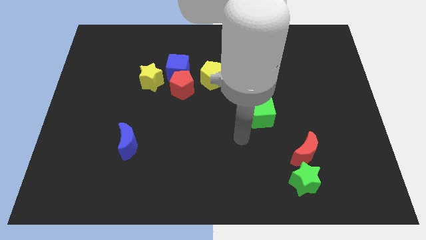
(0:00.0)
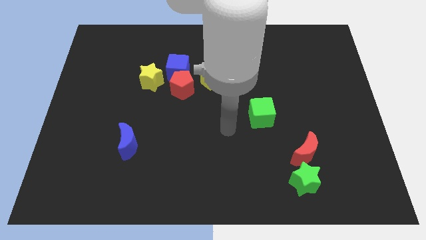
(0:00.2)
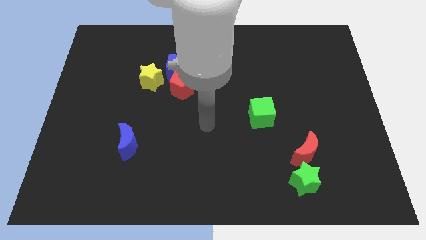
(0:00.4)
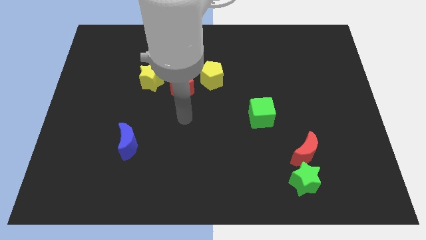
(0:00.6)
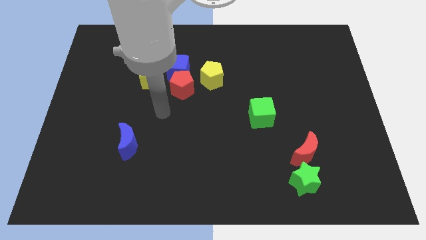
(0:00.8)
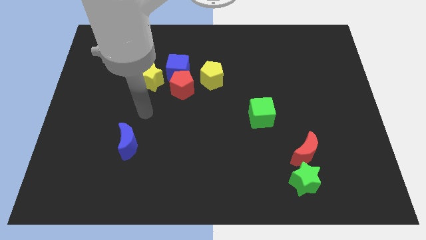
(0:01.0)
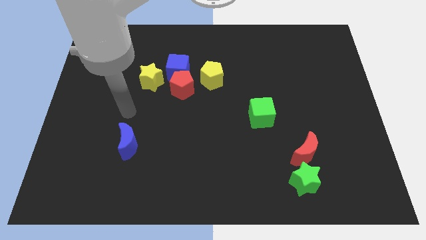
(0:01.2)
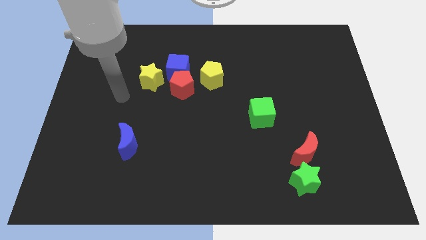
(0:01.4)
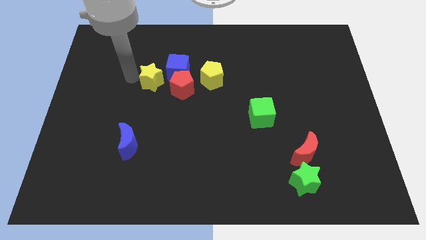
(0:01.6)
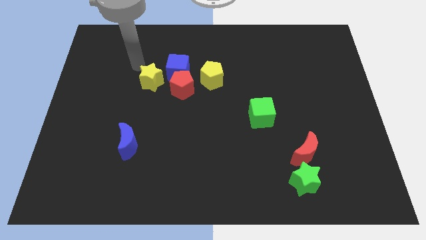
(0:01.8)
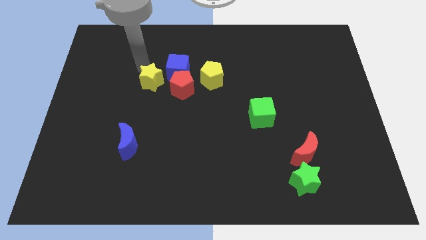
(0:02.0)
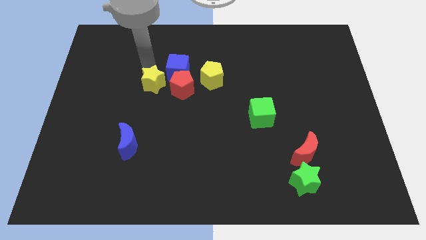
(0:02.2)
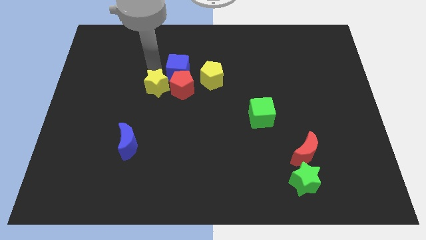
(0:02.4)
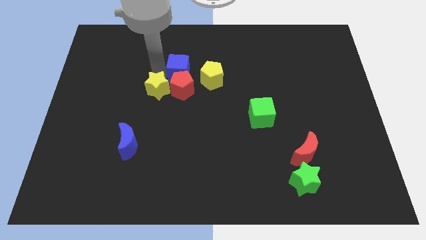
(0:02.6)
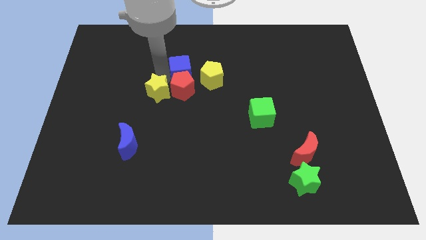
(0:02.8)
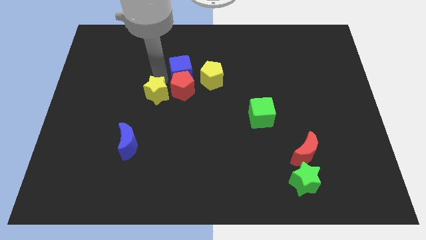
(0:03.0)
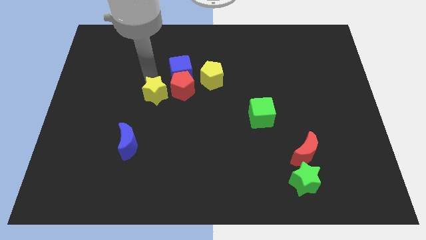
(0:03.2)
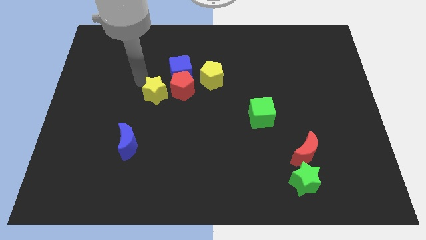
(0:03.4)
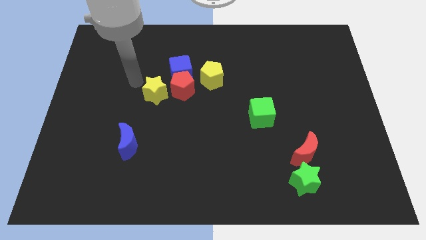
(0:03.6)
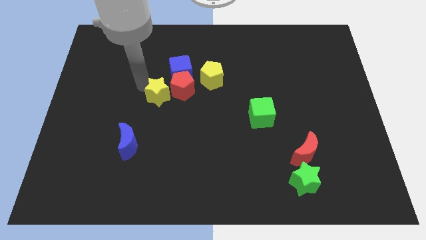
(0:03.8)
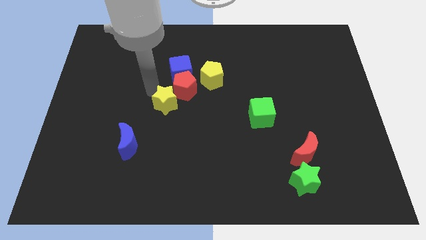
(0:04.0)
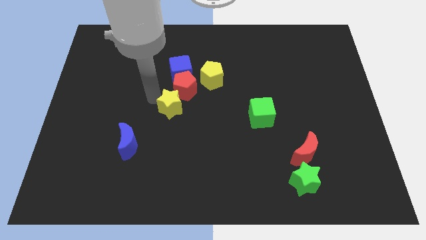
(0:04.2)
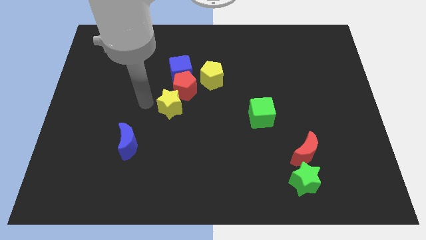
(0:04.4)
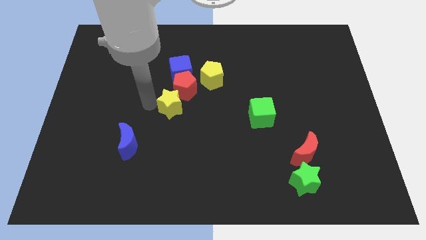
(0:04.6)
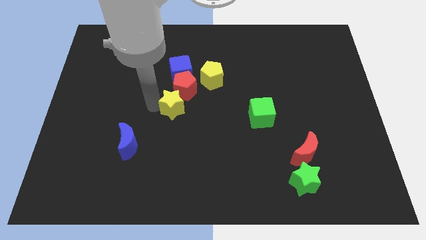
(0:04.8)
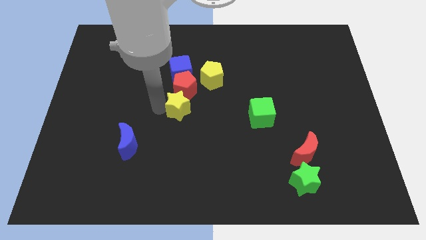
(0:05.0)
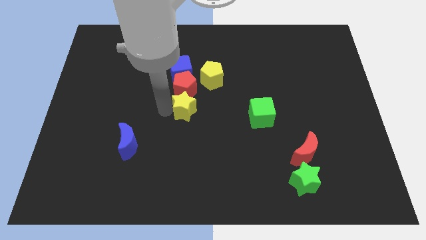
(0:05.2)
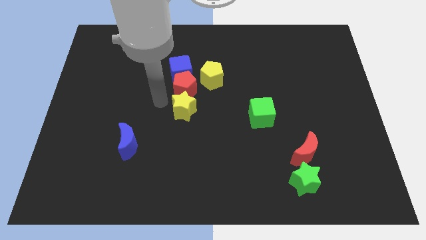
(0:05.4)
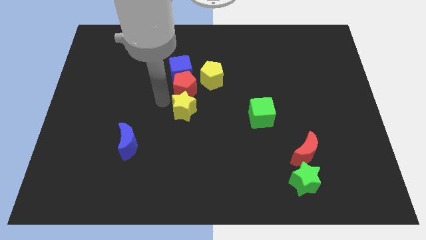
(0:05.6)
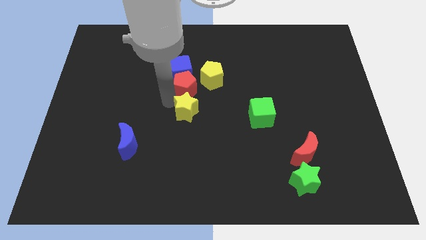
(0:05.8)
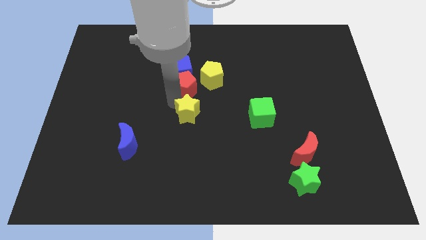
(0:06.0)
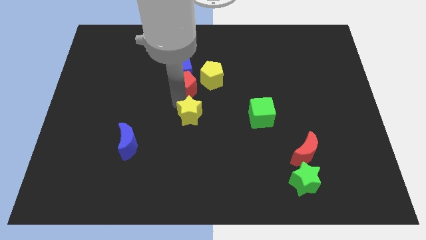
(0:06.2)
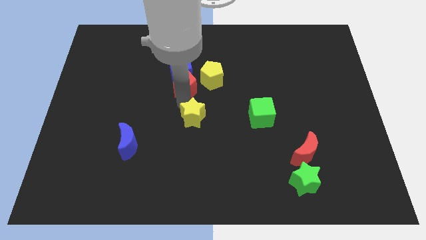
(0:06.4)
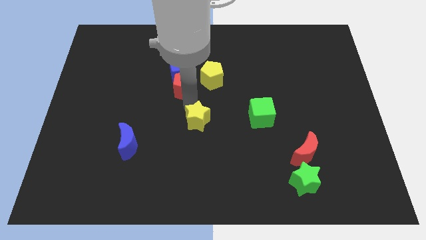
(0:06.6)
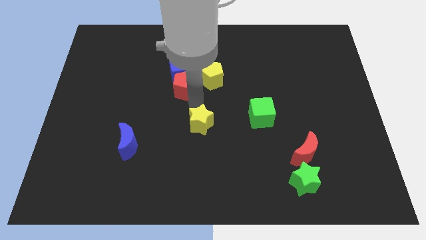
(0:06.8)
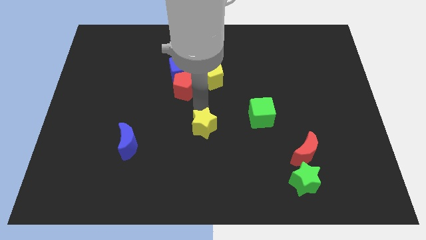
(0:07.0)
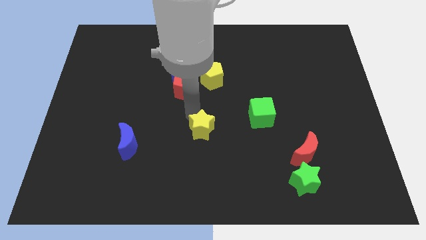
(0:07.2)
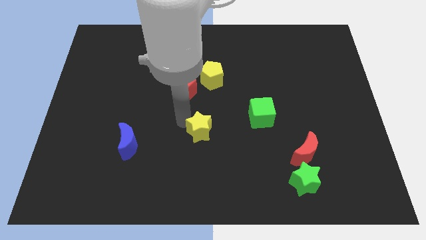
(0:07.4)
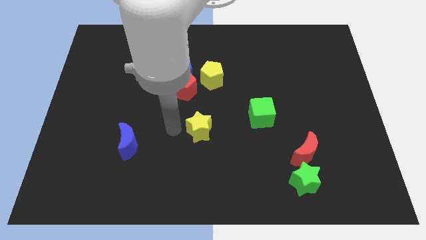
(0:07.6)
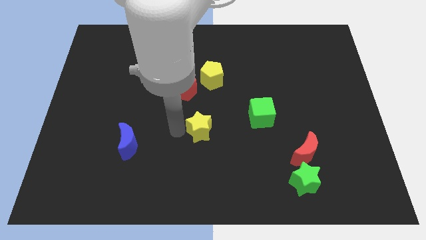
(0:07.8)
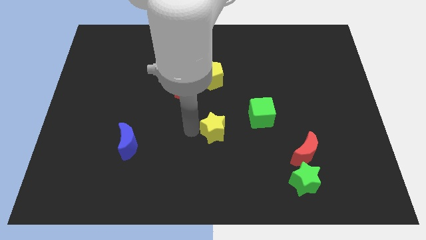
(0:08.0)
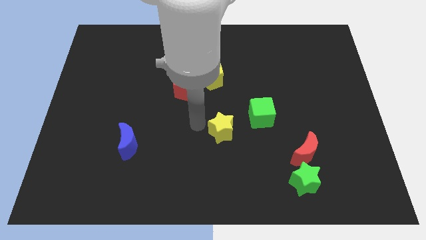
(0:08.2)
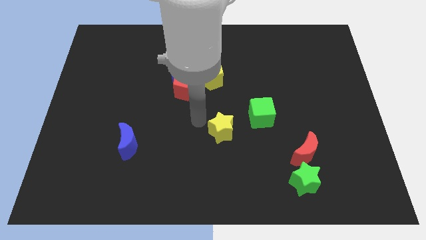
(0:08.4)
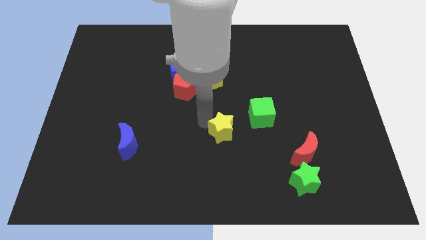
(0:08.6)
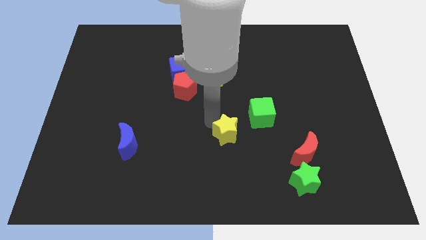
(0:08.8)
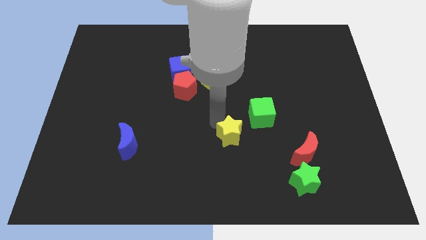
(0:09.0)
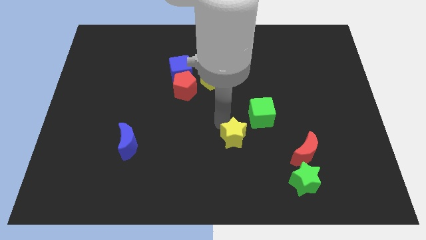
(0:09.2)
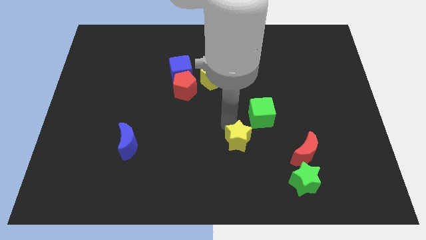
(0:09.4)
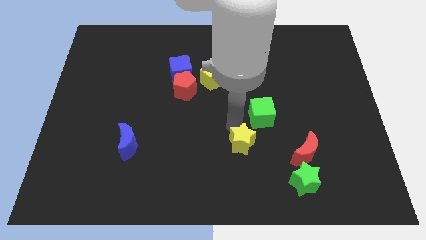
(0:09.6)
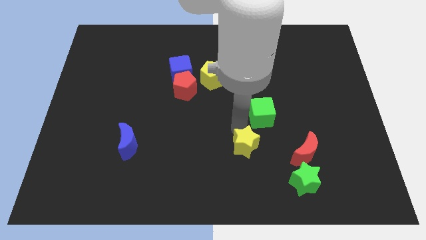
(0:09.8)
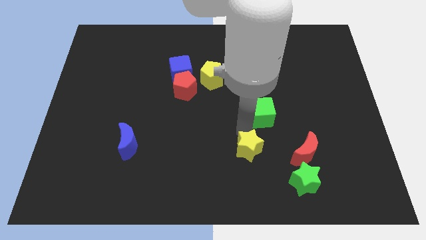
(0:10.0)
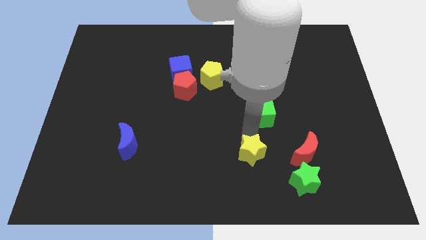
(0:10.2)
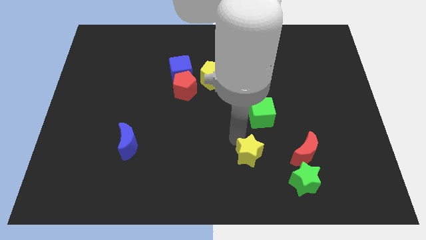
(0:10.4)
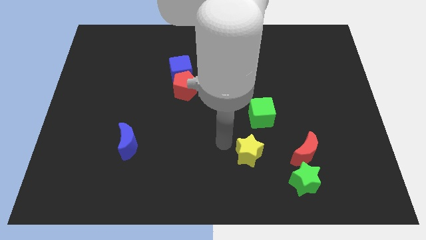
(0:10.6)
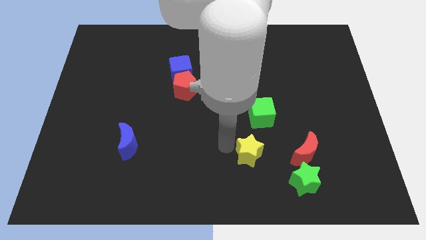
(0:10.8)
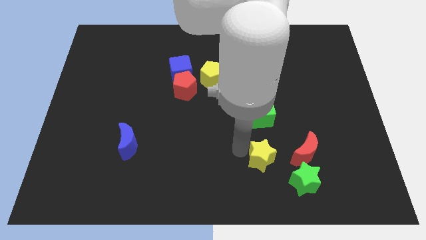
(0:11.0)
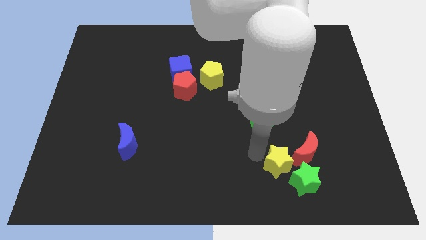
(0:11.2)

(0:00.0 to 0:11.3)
push the yellow star to the green star

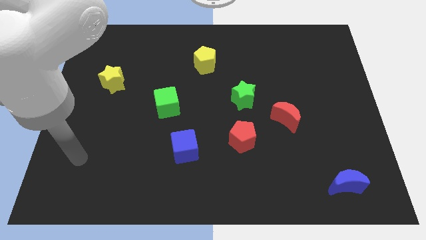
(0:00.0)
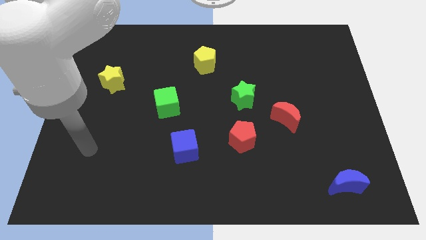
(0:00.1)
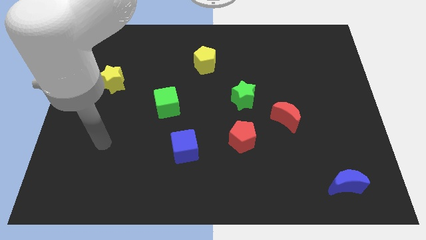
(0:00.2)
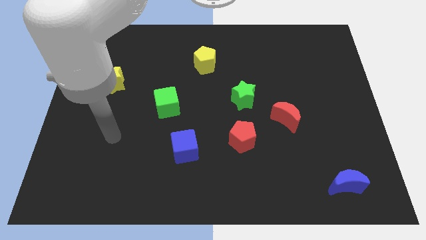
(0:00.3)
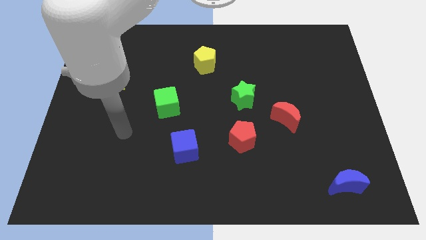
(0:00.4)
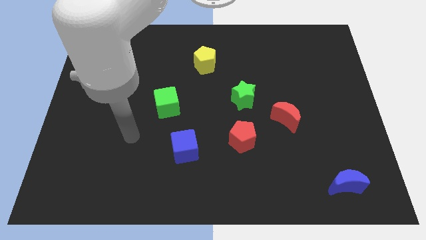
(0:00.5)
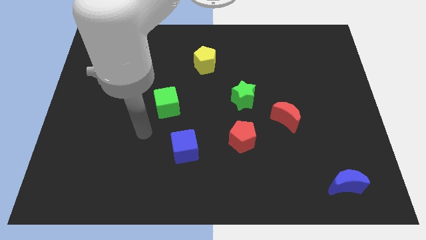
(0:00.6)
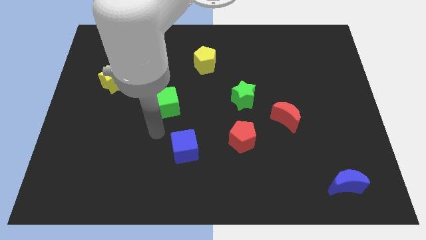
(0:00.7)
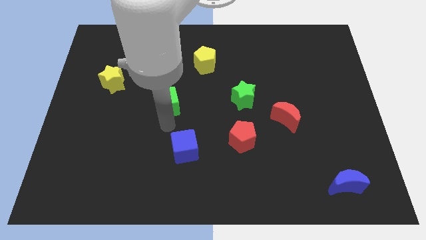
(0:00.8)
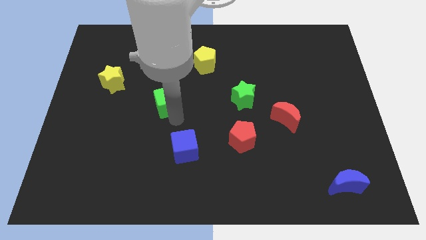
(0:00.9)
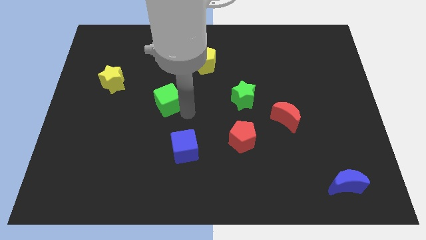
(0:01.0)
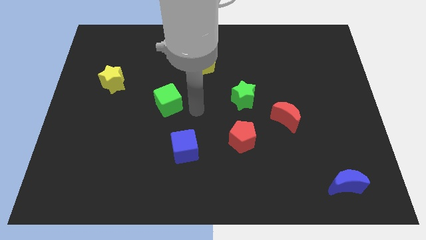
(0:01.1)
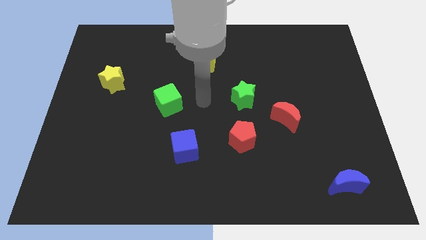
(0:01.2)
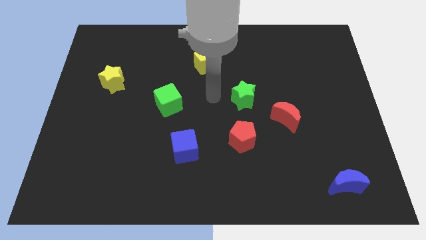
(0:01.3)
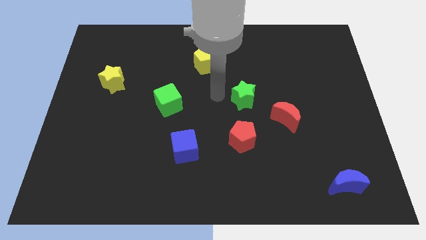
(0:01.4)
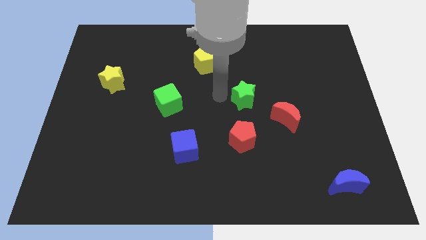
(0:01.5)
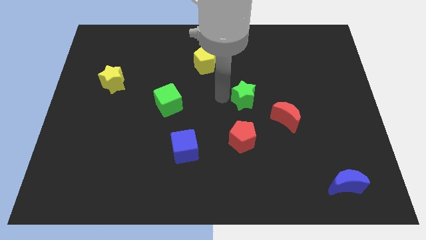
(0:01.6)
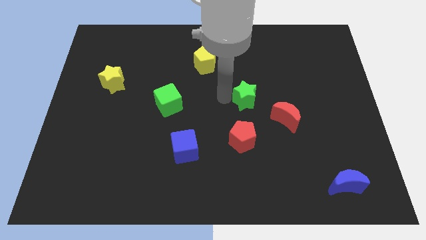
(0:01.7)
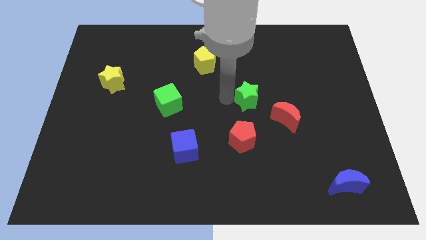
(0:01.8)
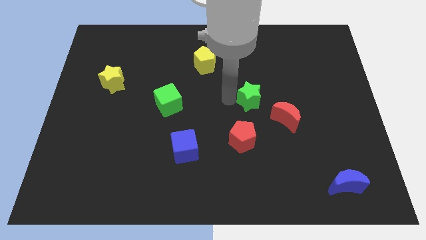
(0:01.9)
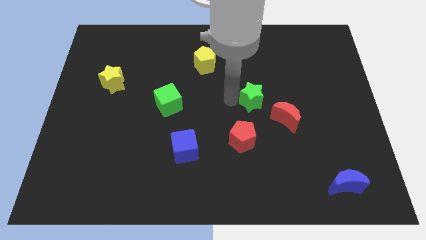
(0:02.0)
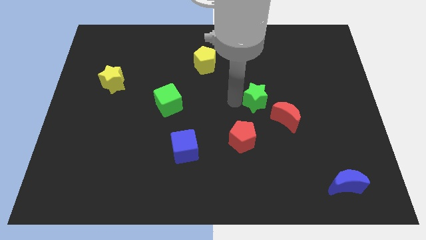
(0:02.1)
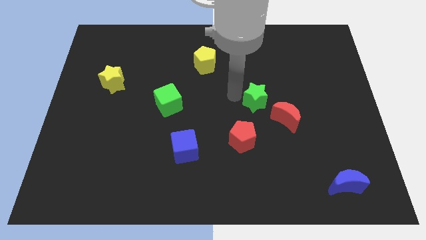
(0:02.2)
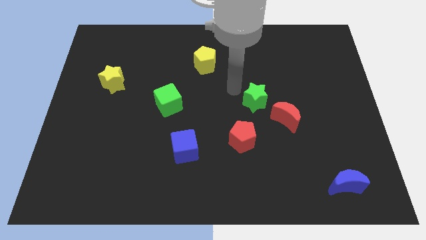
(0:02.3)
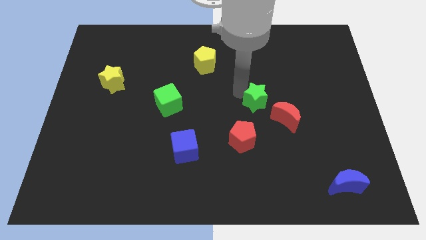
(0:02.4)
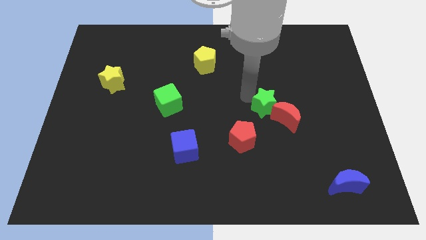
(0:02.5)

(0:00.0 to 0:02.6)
put the green star to the red moon
